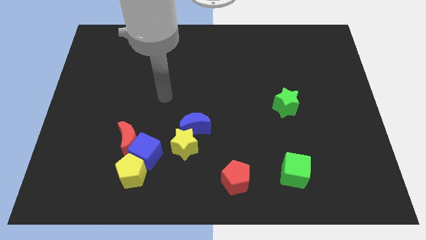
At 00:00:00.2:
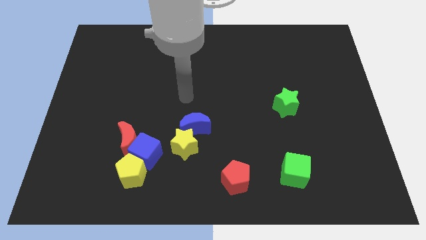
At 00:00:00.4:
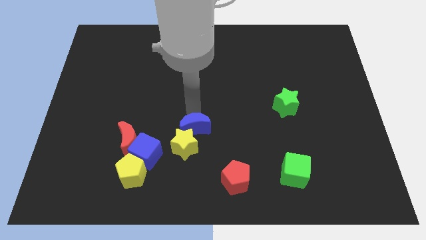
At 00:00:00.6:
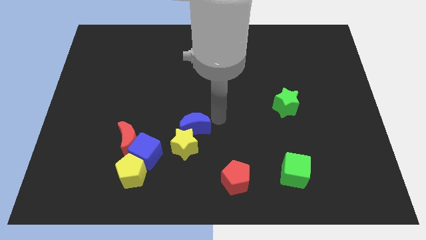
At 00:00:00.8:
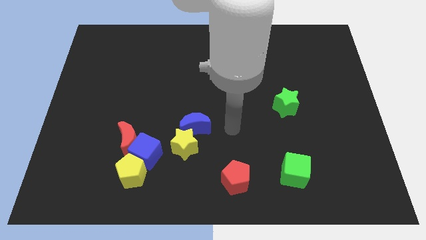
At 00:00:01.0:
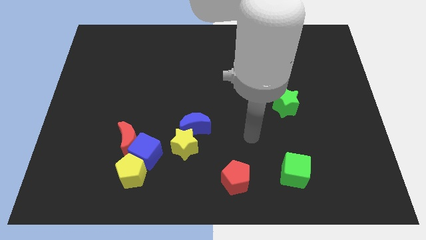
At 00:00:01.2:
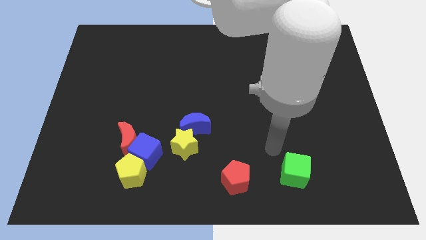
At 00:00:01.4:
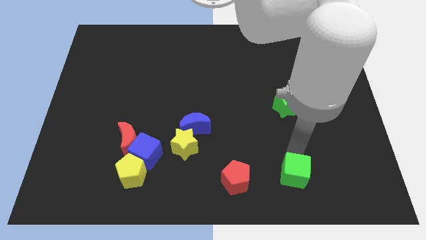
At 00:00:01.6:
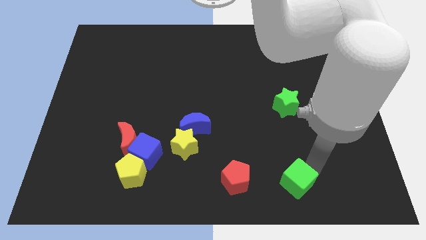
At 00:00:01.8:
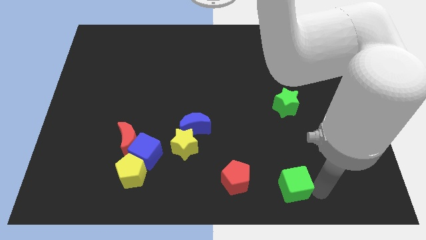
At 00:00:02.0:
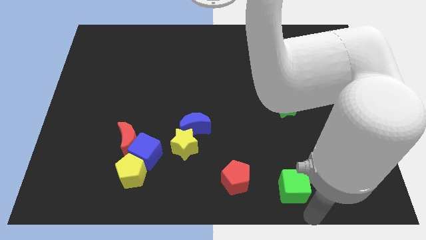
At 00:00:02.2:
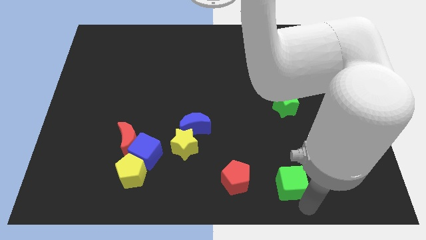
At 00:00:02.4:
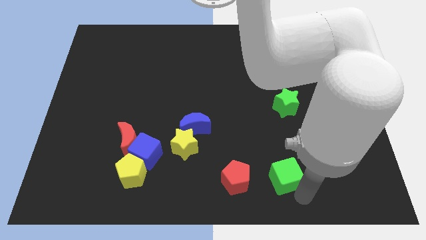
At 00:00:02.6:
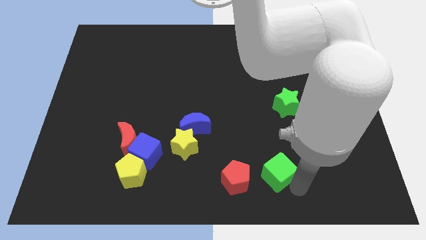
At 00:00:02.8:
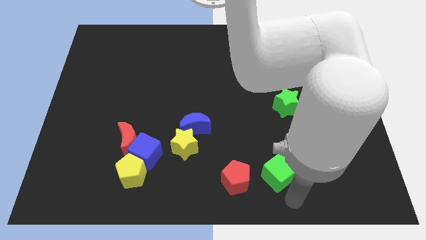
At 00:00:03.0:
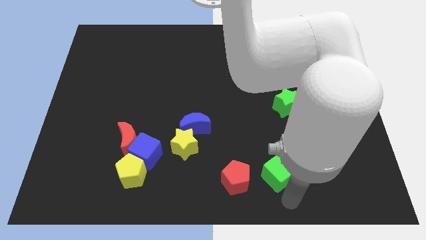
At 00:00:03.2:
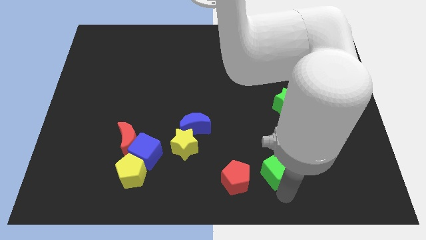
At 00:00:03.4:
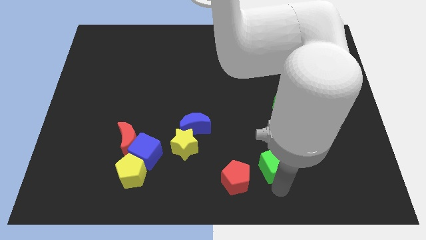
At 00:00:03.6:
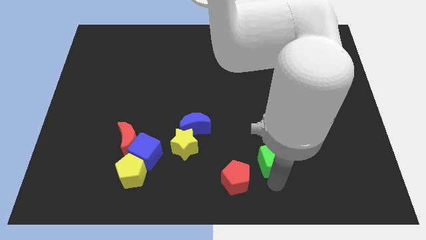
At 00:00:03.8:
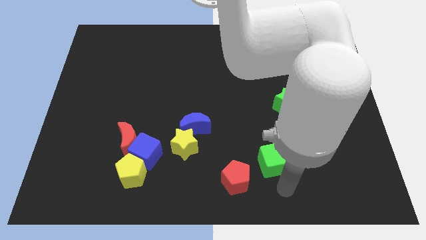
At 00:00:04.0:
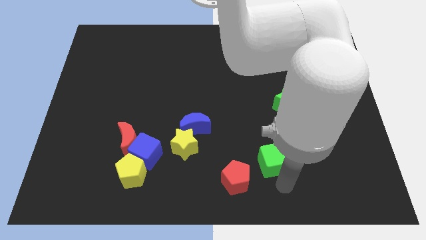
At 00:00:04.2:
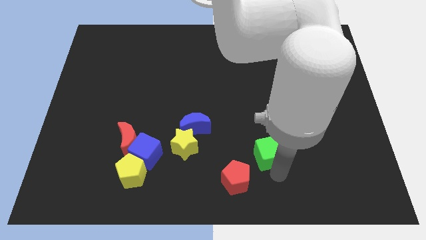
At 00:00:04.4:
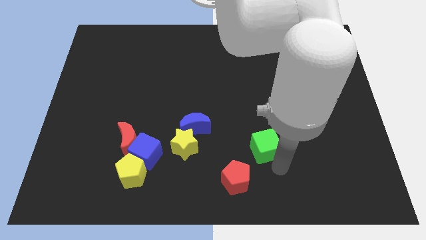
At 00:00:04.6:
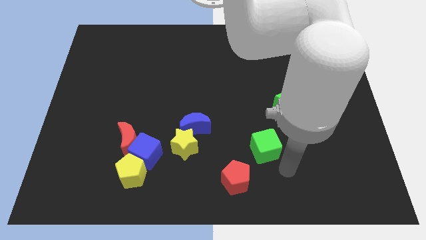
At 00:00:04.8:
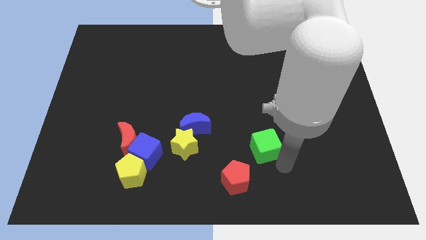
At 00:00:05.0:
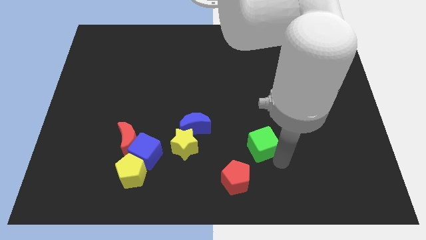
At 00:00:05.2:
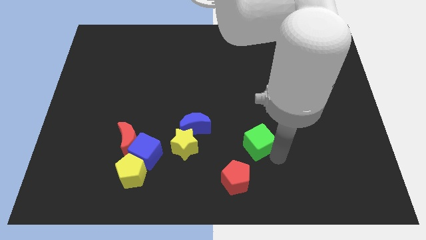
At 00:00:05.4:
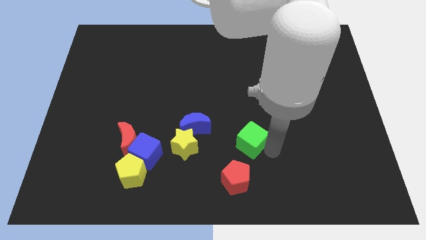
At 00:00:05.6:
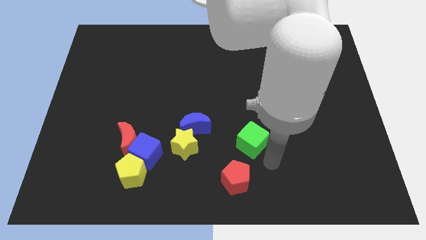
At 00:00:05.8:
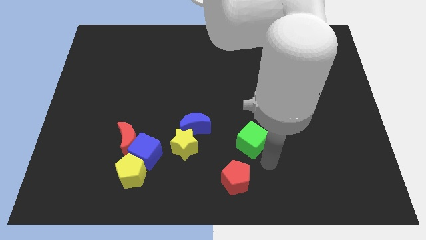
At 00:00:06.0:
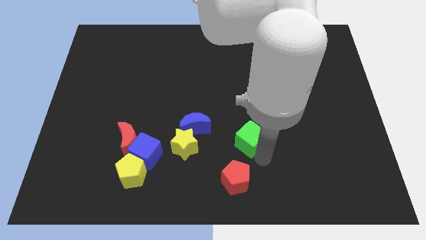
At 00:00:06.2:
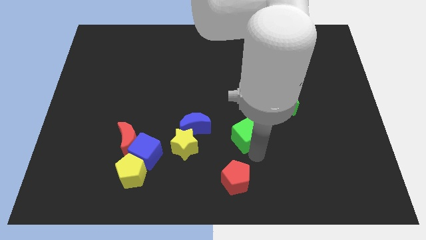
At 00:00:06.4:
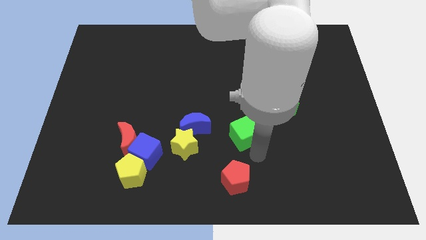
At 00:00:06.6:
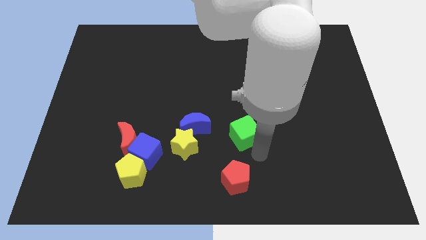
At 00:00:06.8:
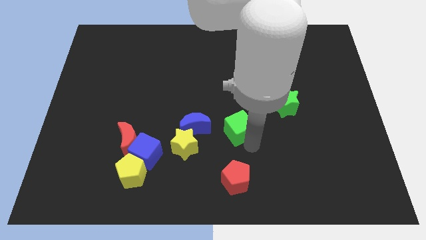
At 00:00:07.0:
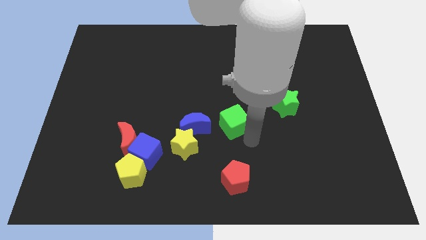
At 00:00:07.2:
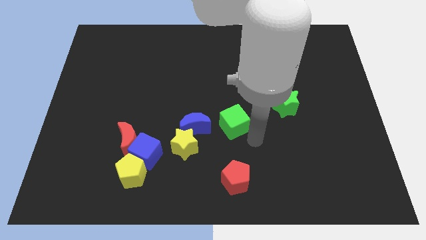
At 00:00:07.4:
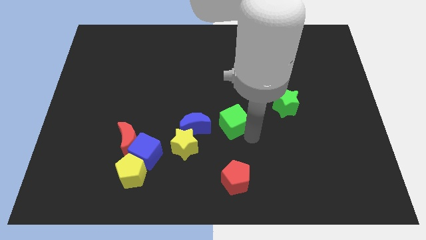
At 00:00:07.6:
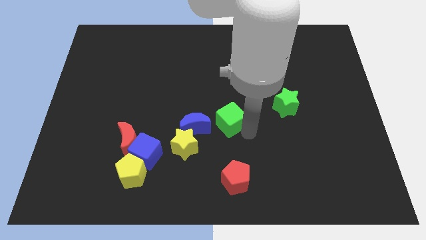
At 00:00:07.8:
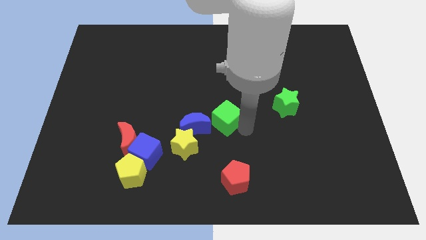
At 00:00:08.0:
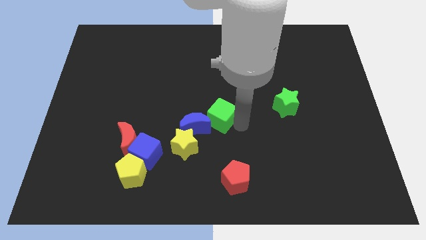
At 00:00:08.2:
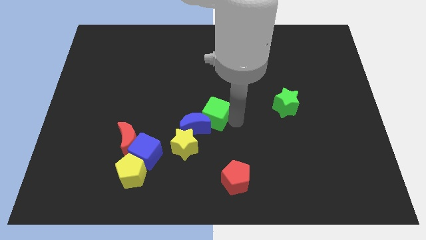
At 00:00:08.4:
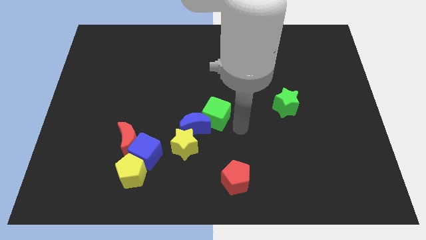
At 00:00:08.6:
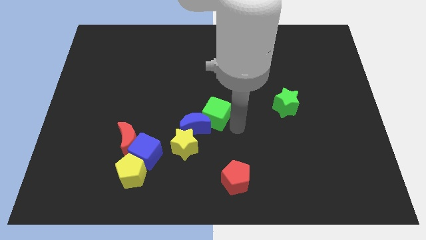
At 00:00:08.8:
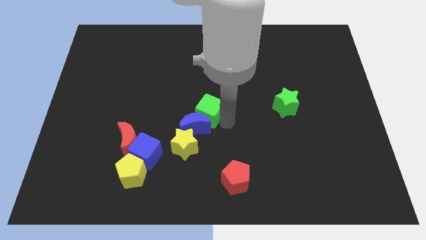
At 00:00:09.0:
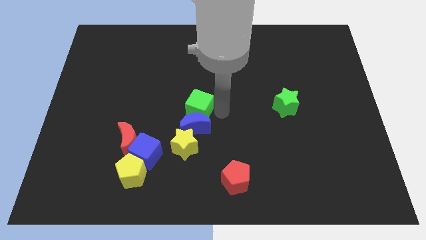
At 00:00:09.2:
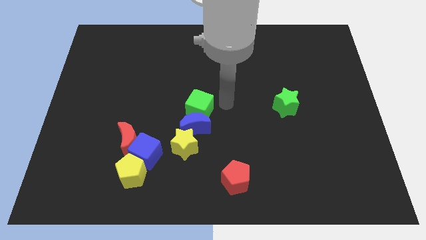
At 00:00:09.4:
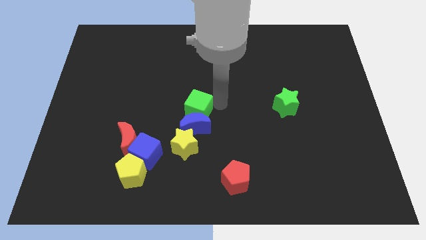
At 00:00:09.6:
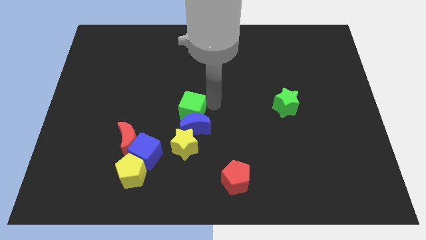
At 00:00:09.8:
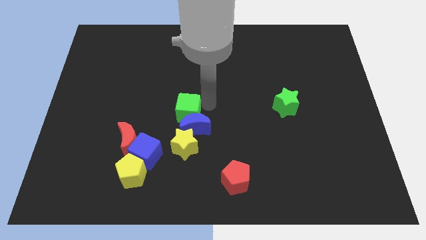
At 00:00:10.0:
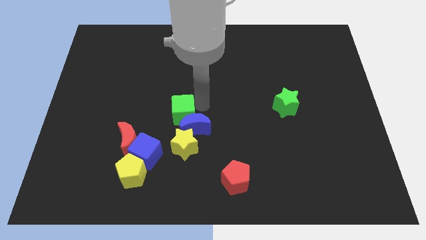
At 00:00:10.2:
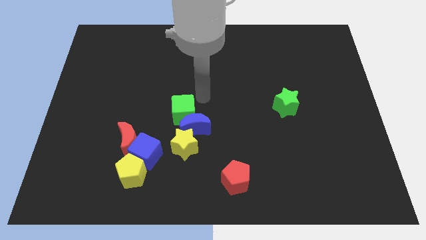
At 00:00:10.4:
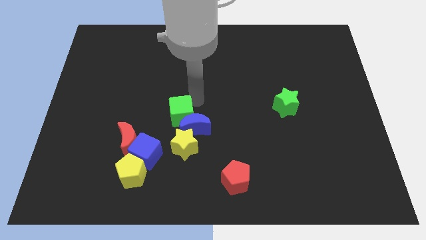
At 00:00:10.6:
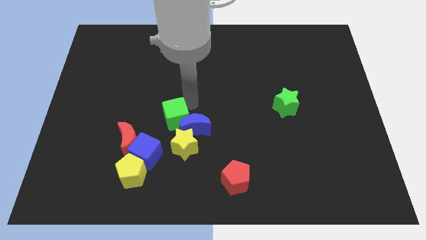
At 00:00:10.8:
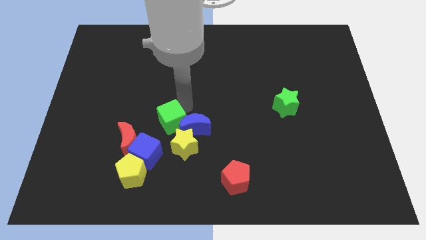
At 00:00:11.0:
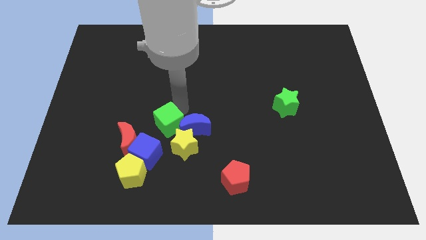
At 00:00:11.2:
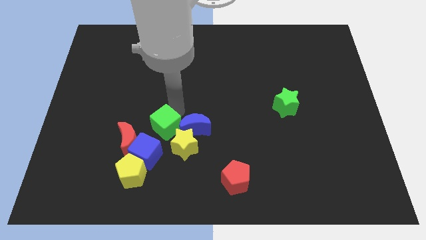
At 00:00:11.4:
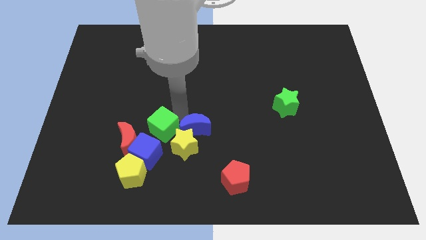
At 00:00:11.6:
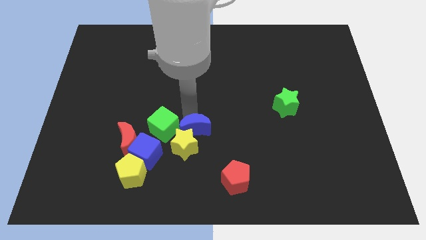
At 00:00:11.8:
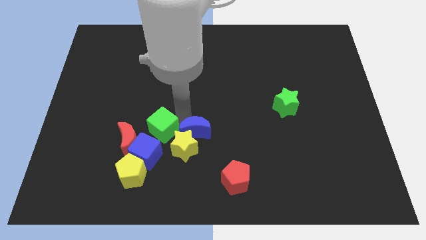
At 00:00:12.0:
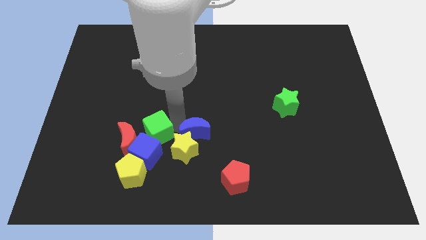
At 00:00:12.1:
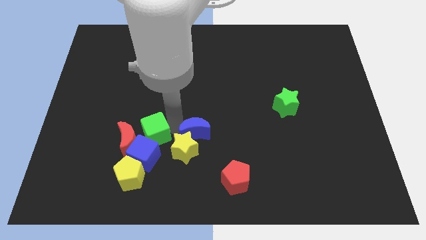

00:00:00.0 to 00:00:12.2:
put the green cube to the red moon

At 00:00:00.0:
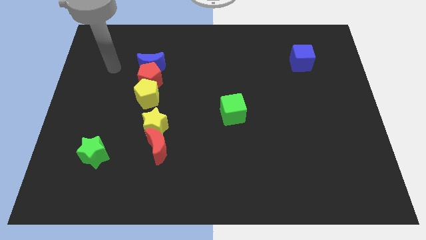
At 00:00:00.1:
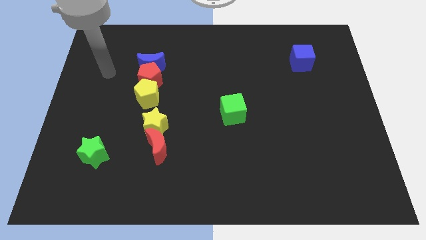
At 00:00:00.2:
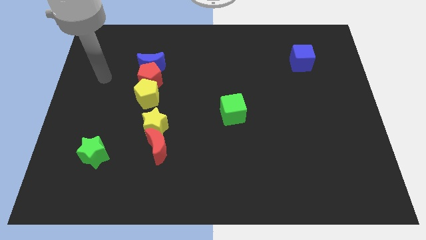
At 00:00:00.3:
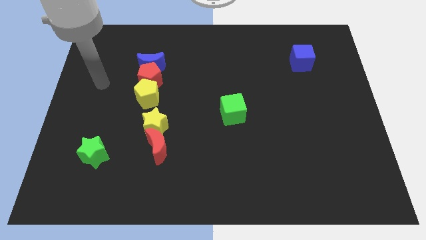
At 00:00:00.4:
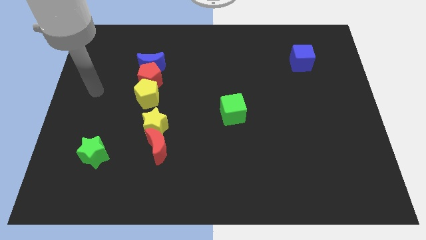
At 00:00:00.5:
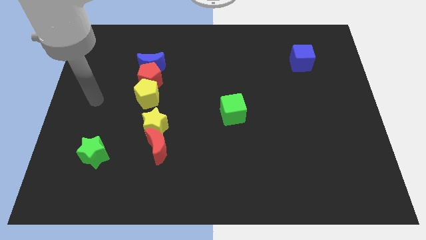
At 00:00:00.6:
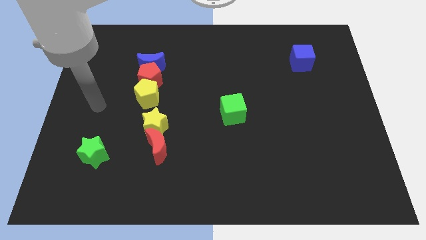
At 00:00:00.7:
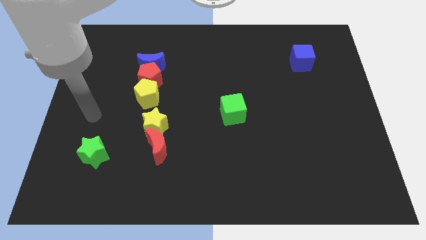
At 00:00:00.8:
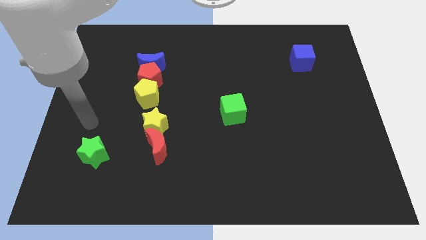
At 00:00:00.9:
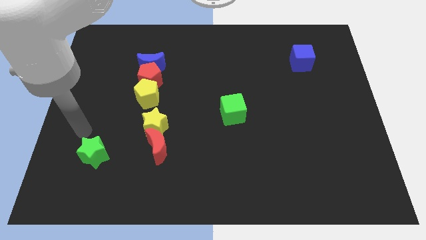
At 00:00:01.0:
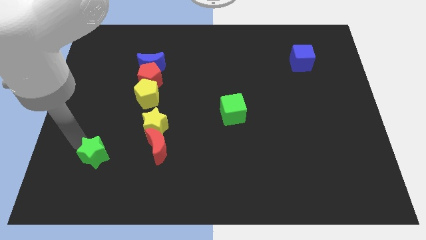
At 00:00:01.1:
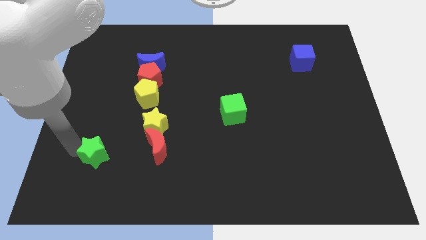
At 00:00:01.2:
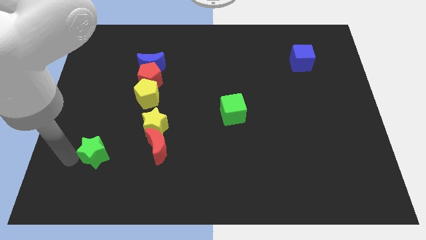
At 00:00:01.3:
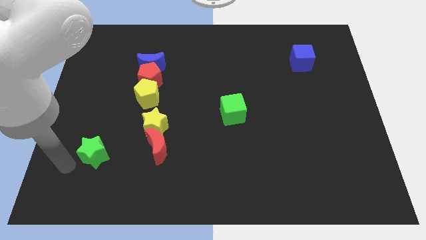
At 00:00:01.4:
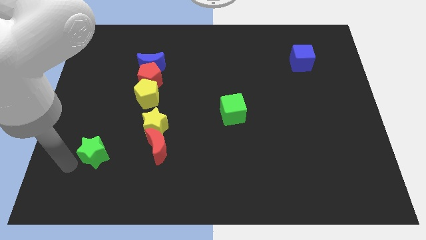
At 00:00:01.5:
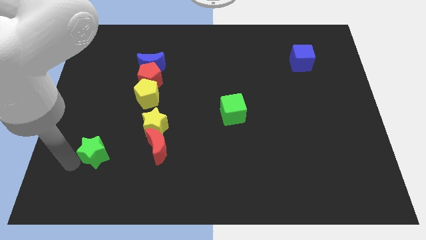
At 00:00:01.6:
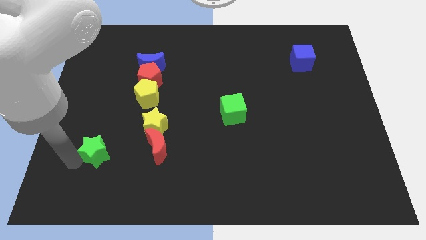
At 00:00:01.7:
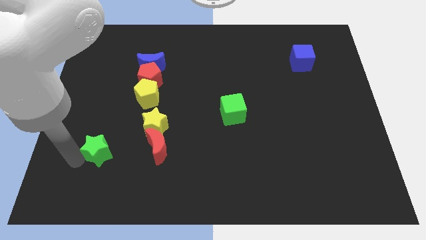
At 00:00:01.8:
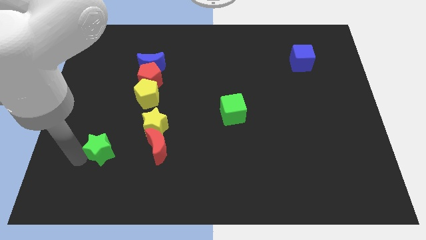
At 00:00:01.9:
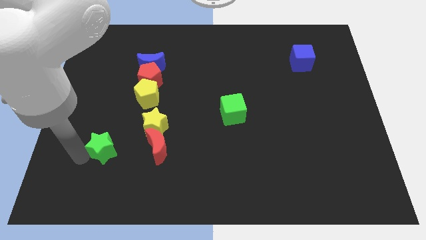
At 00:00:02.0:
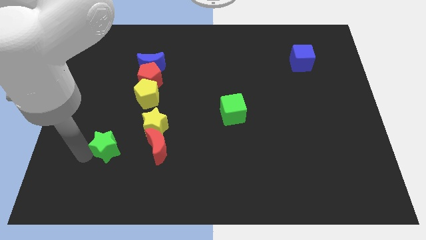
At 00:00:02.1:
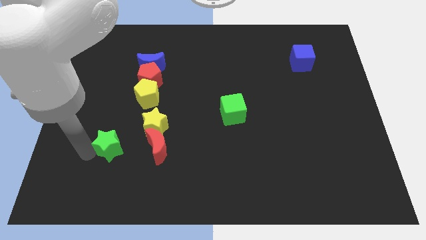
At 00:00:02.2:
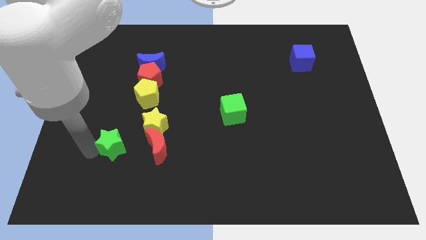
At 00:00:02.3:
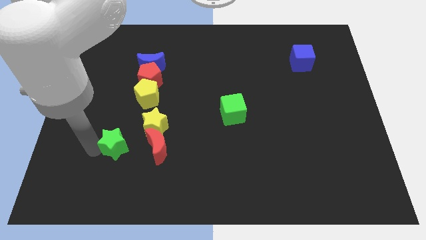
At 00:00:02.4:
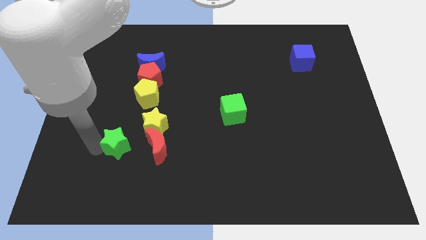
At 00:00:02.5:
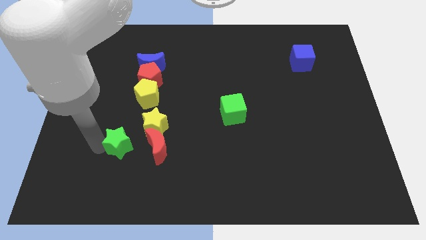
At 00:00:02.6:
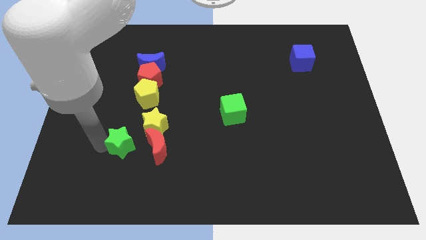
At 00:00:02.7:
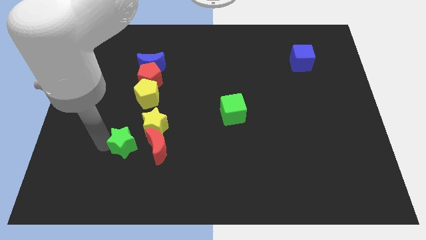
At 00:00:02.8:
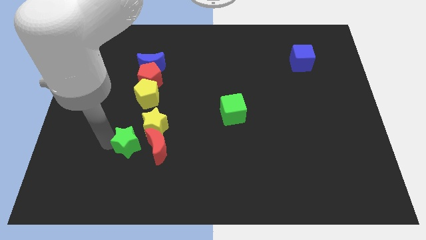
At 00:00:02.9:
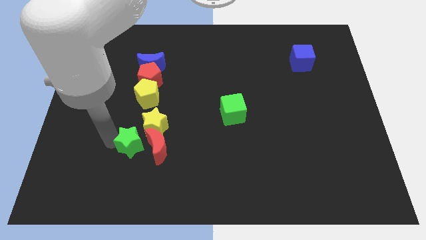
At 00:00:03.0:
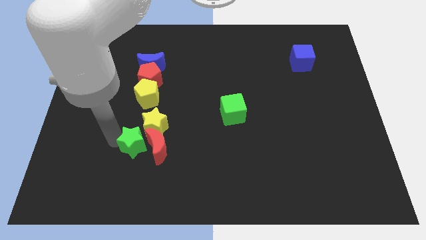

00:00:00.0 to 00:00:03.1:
move the green star towards the yellow star
